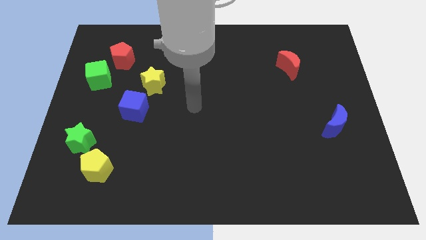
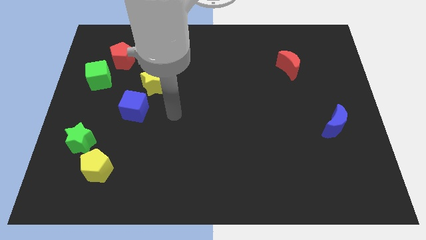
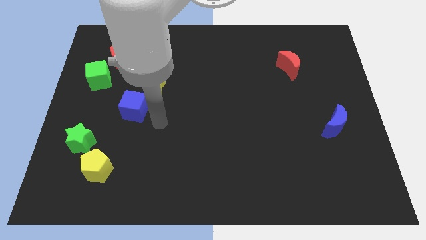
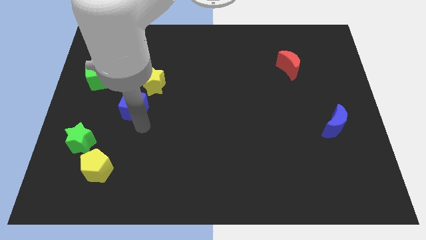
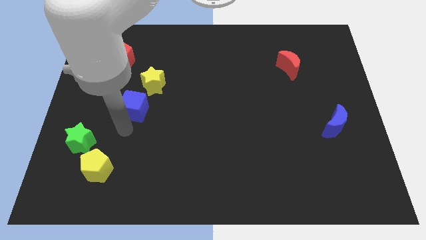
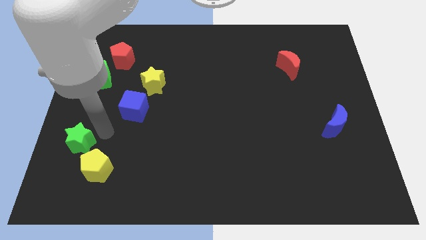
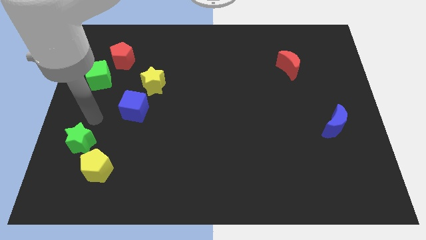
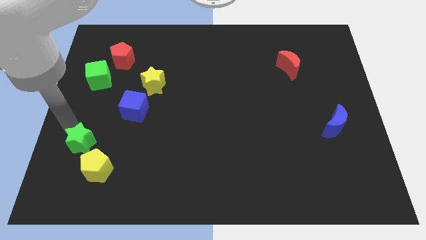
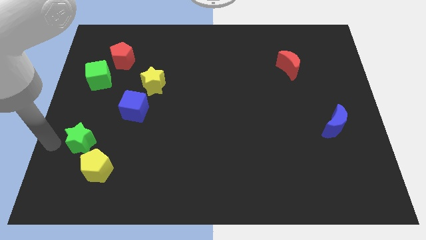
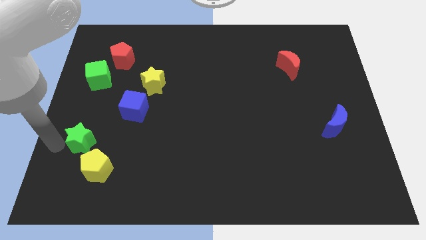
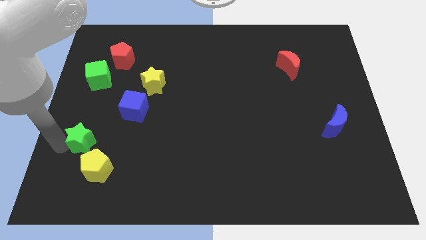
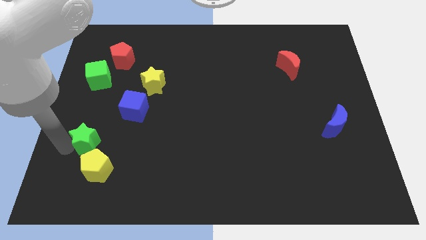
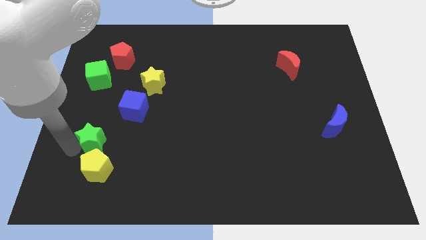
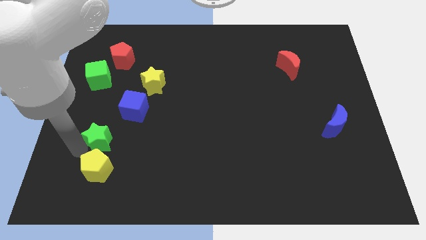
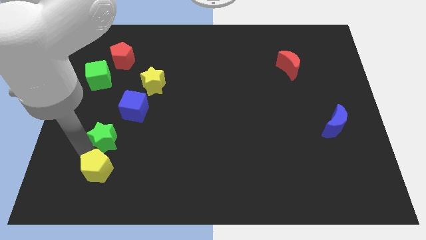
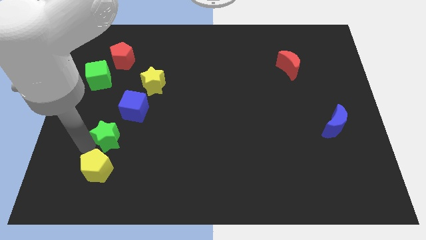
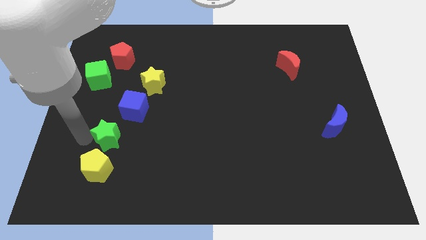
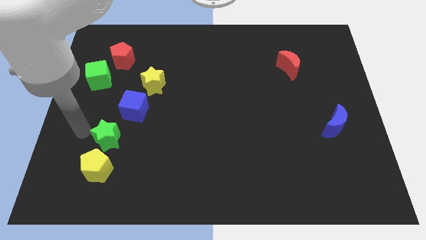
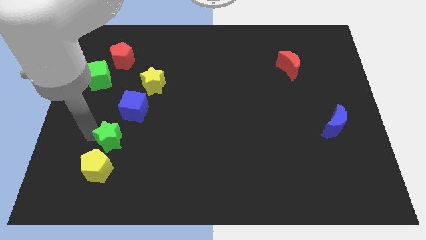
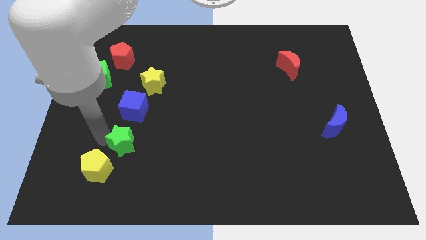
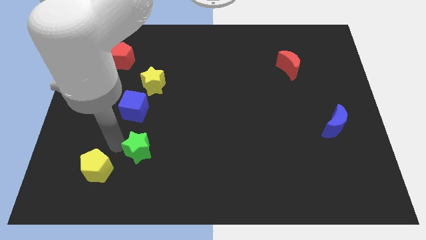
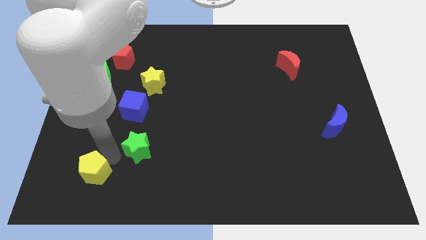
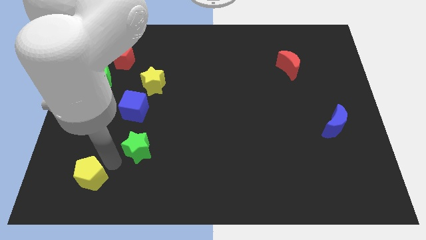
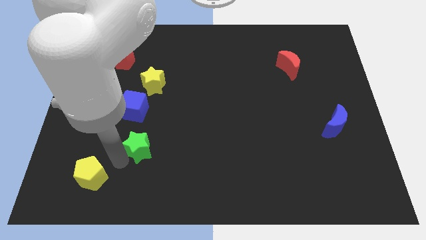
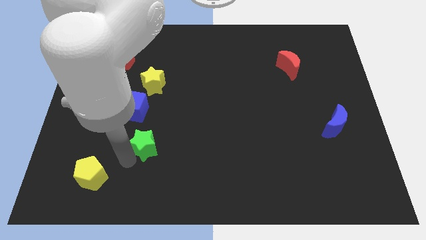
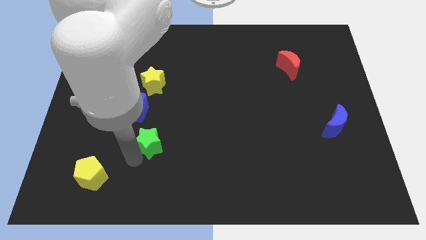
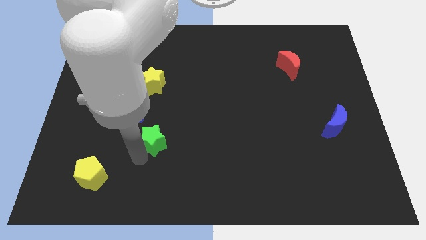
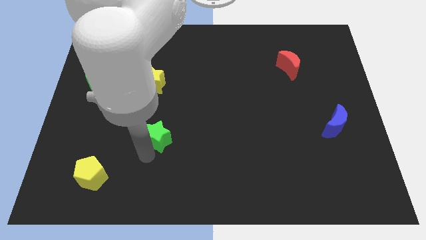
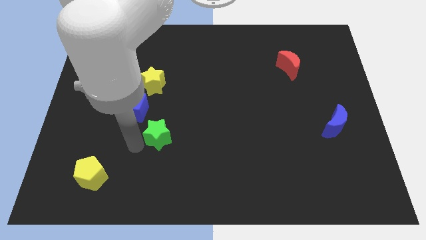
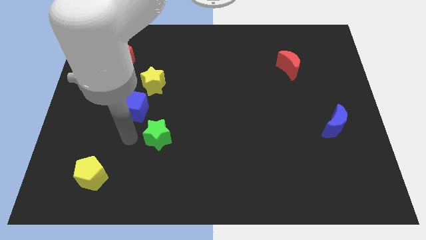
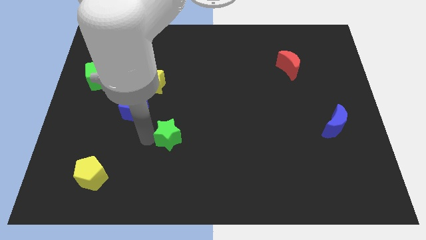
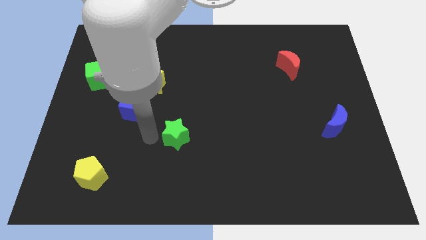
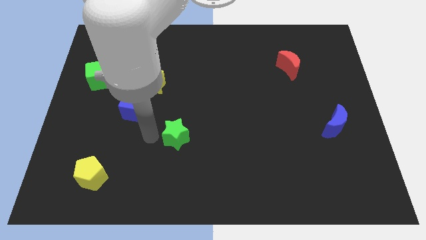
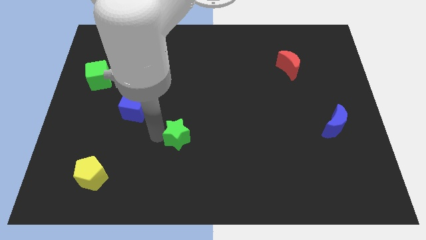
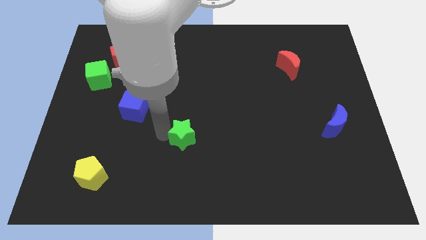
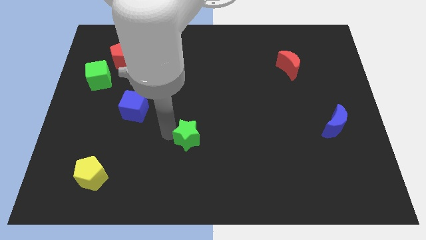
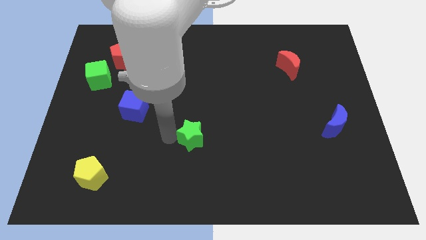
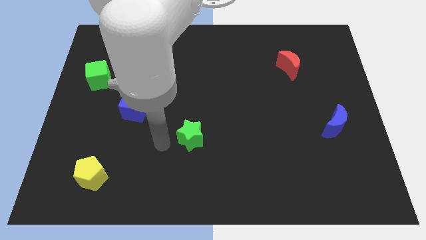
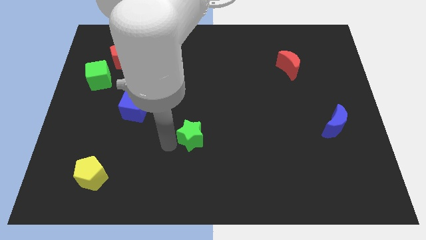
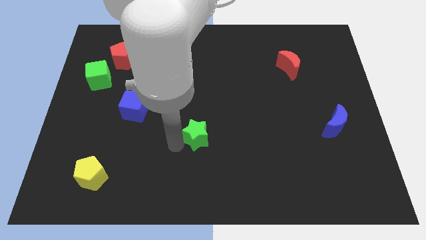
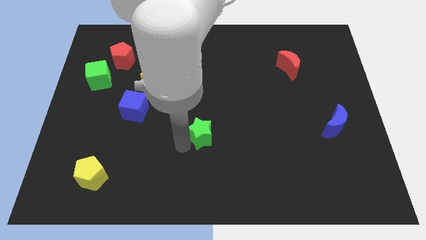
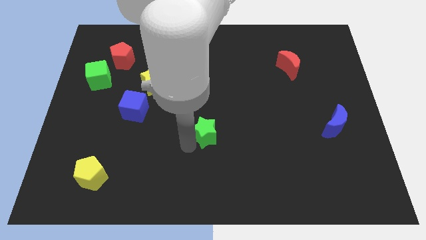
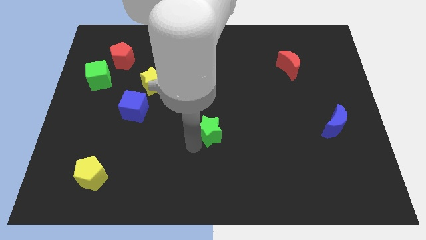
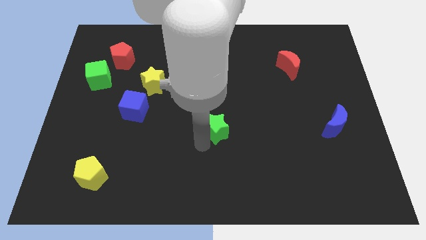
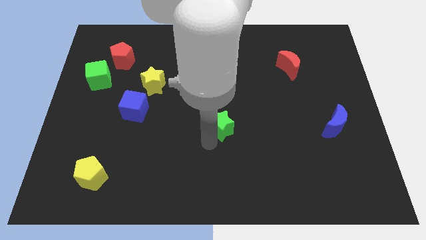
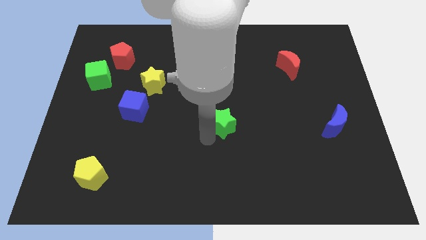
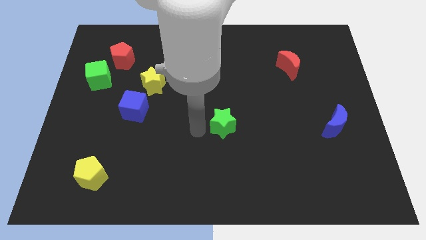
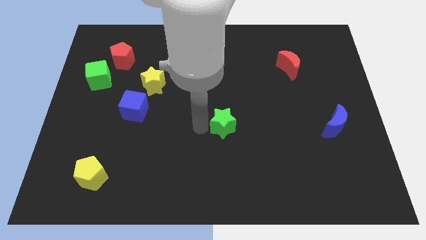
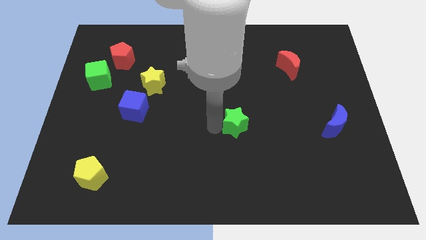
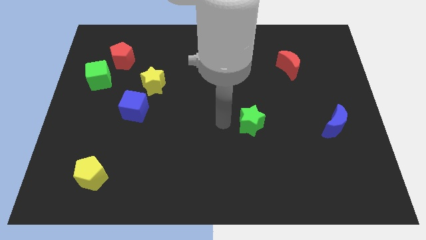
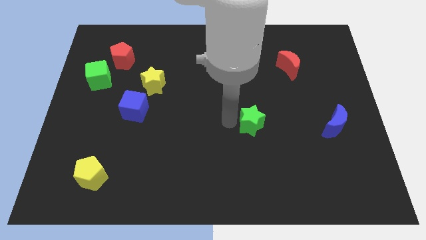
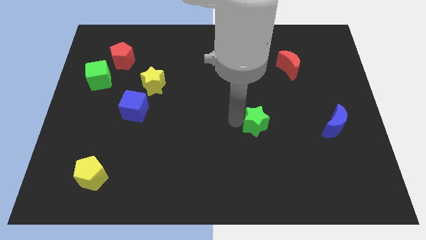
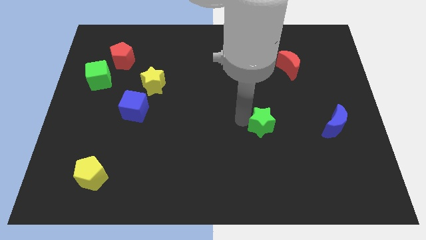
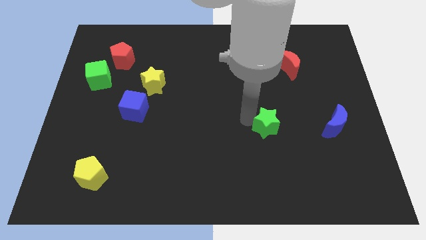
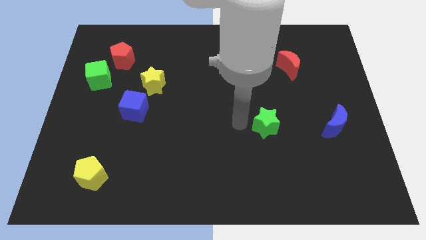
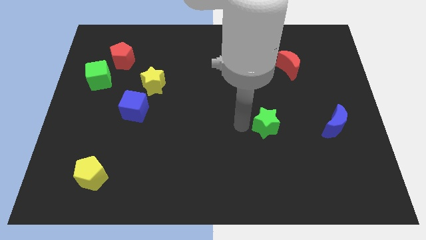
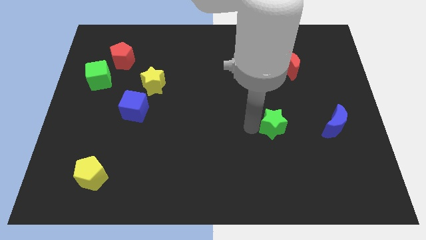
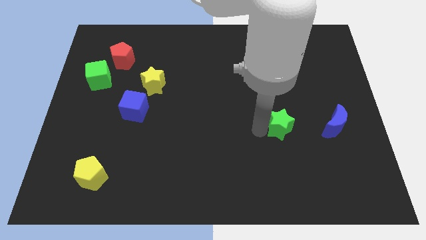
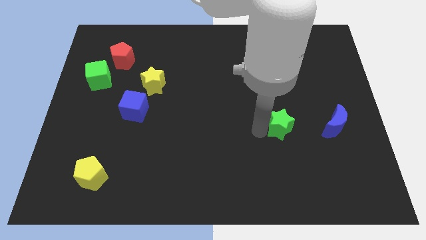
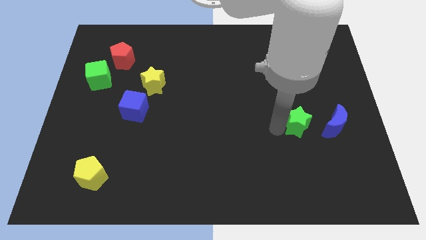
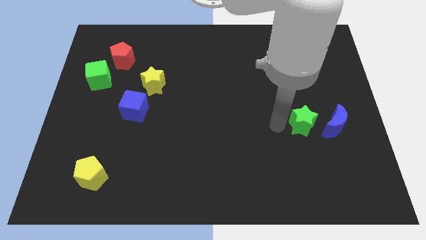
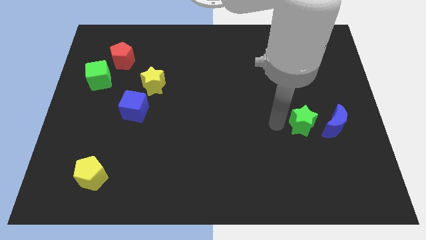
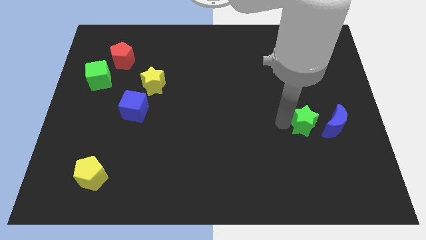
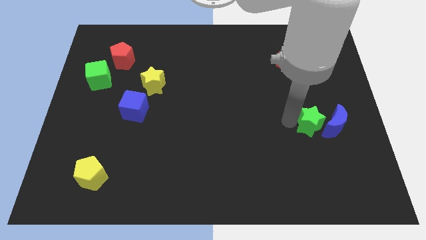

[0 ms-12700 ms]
slide the green star towards the blue moon
